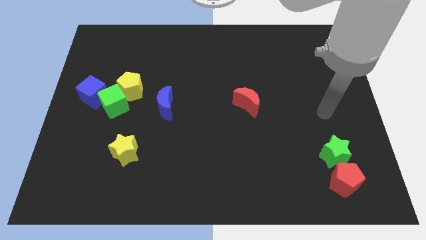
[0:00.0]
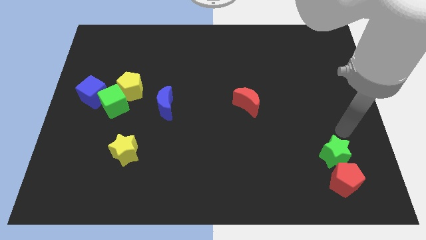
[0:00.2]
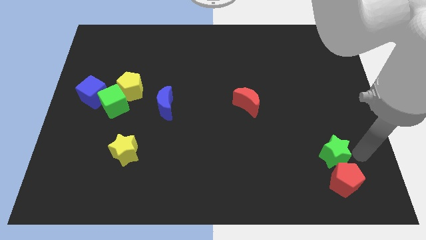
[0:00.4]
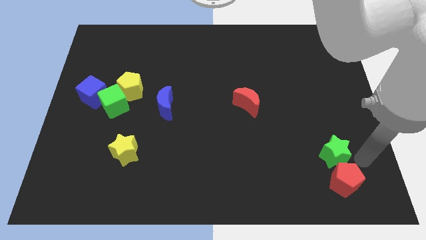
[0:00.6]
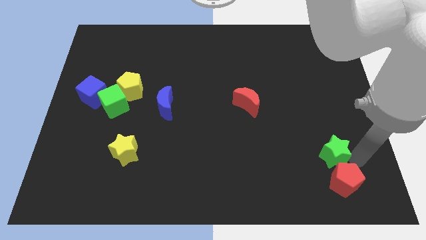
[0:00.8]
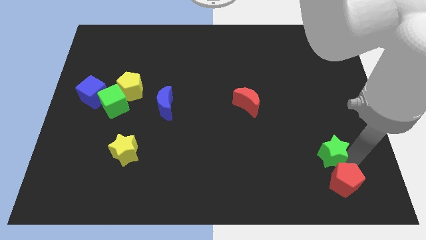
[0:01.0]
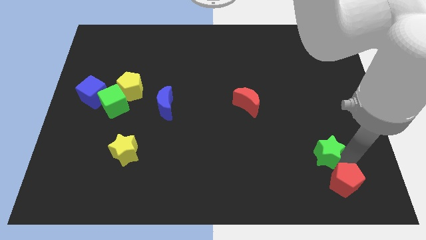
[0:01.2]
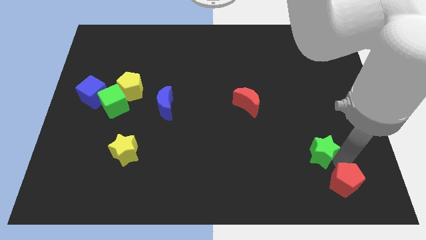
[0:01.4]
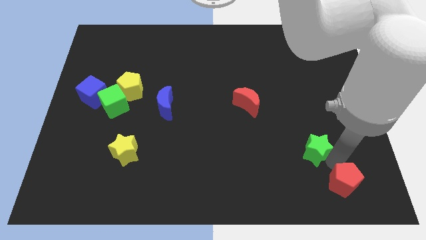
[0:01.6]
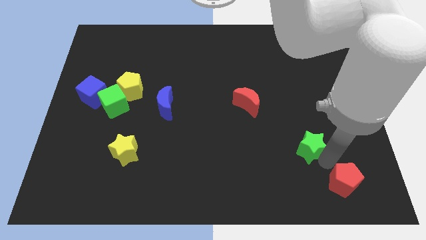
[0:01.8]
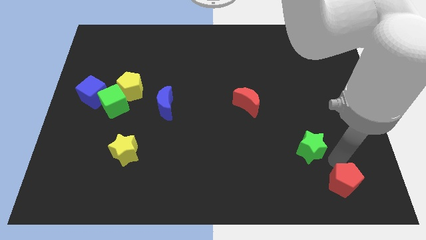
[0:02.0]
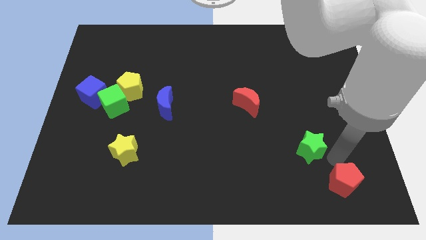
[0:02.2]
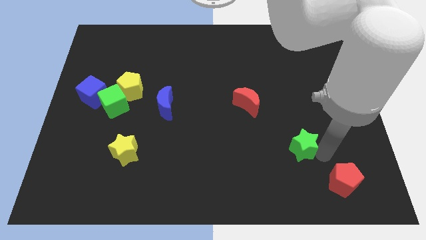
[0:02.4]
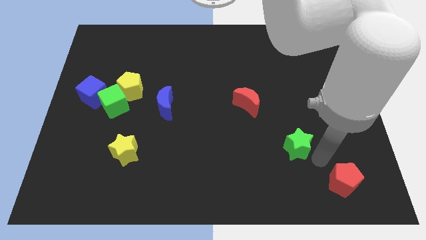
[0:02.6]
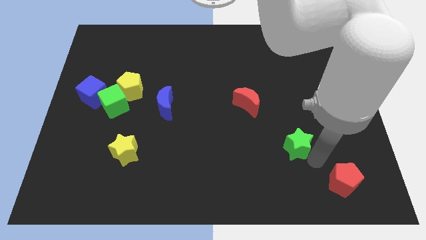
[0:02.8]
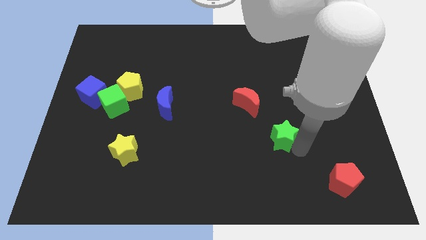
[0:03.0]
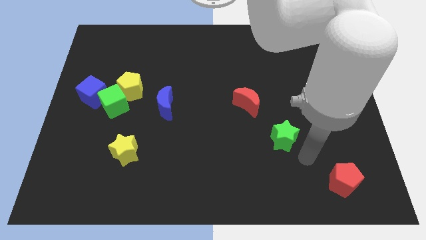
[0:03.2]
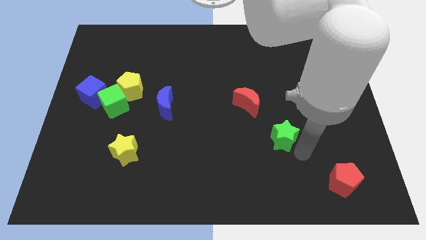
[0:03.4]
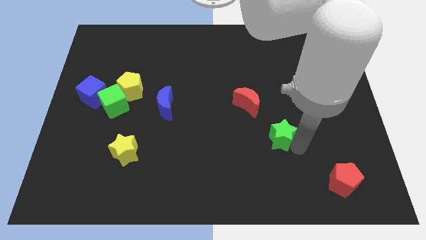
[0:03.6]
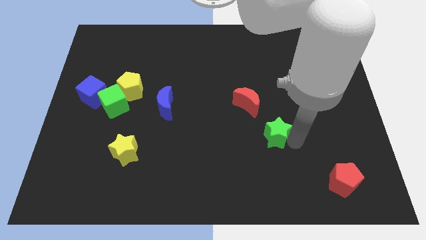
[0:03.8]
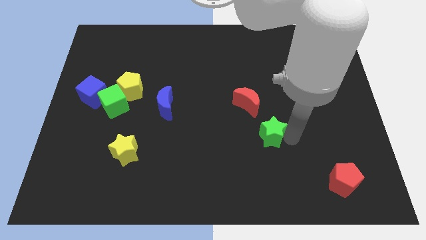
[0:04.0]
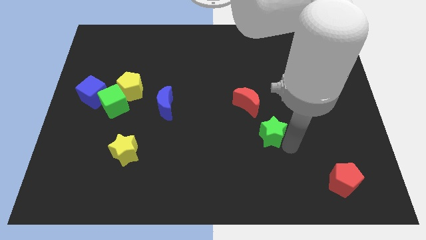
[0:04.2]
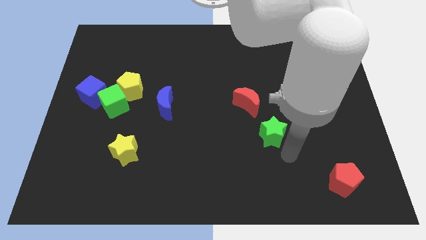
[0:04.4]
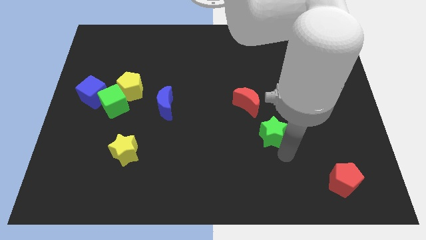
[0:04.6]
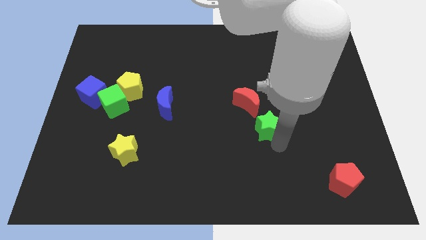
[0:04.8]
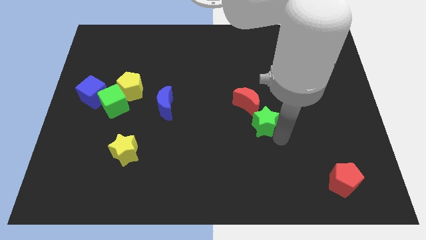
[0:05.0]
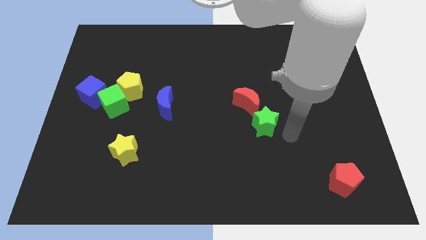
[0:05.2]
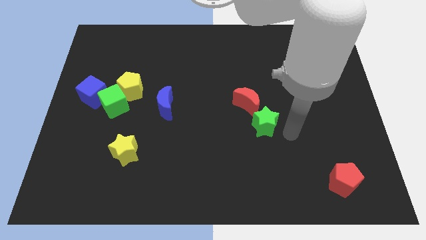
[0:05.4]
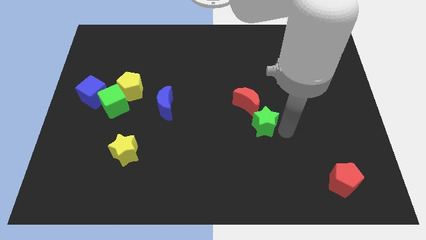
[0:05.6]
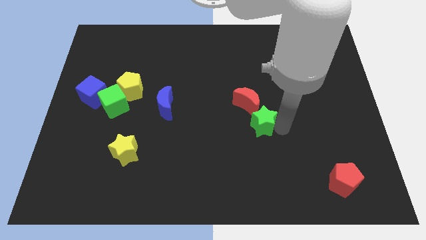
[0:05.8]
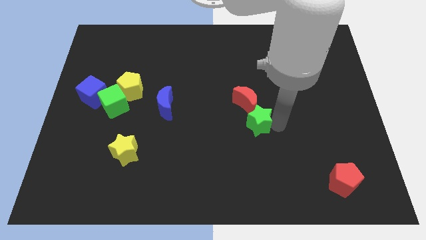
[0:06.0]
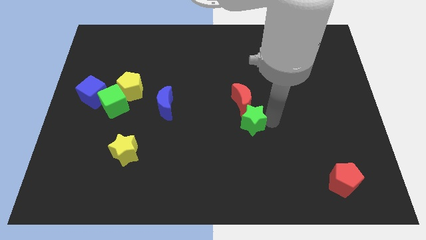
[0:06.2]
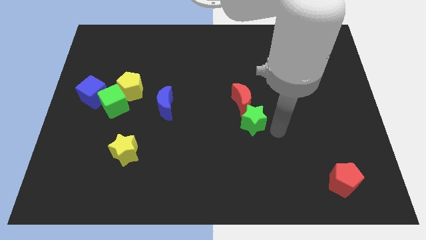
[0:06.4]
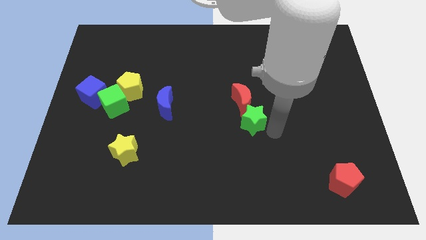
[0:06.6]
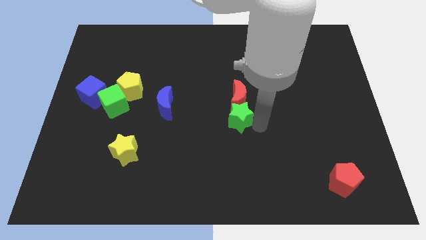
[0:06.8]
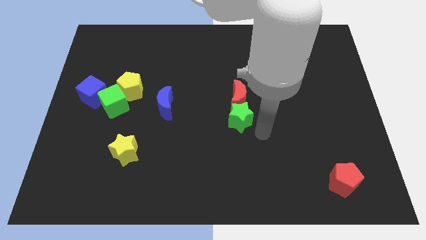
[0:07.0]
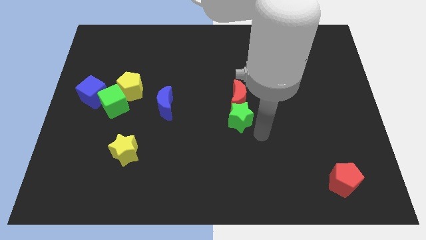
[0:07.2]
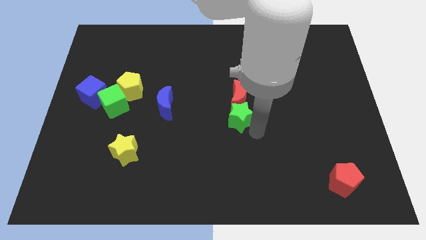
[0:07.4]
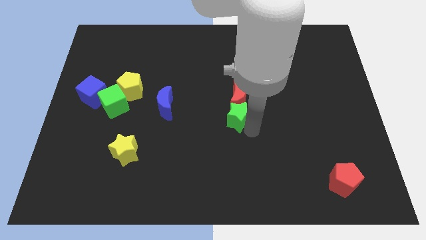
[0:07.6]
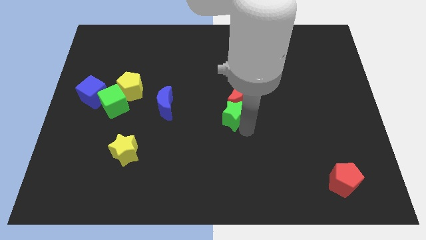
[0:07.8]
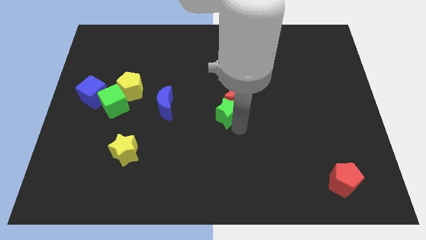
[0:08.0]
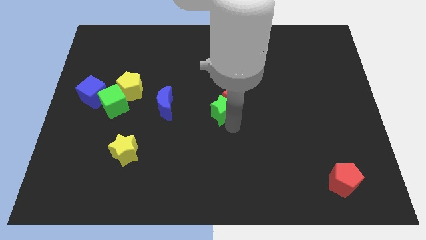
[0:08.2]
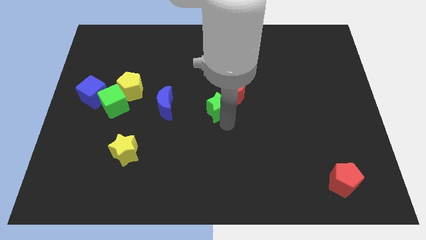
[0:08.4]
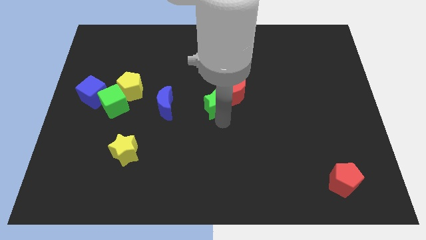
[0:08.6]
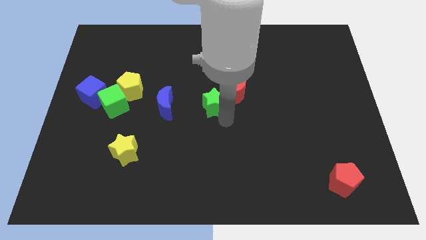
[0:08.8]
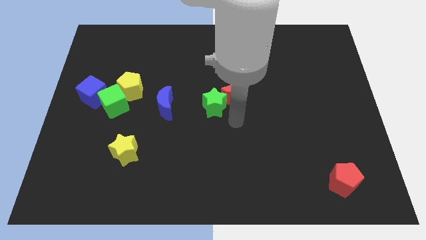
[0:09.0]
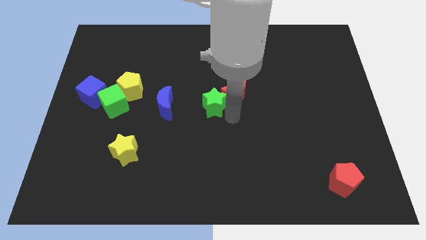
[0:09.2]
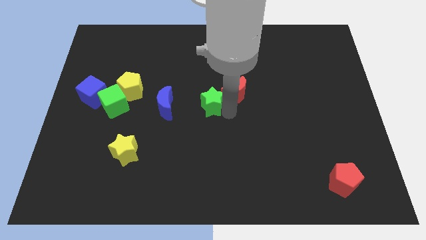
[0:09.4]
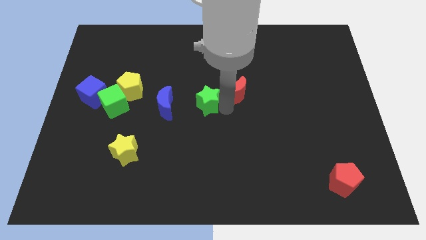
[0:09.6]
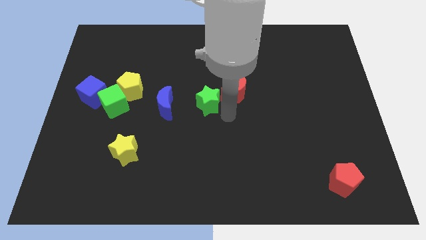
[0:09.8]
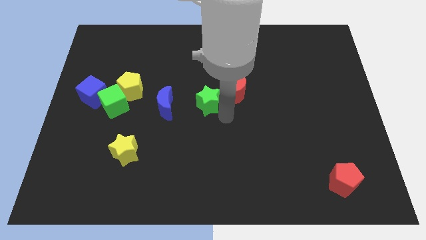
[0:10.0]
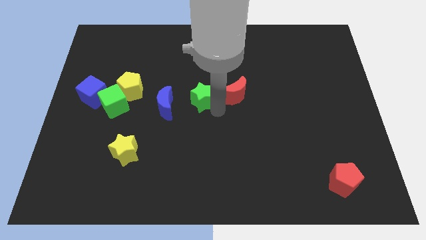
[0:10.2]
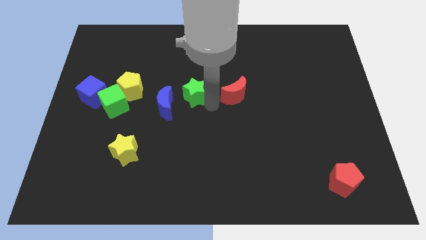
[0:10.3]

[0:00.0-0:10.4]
move the green star to the right of the yellow pentagon

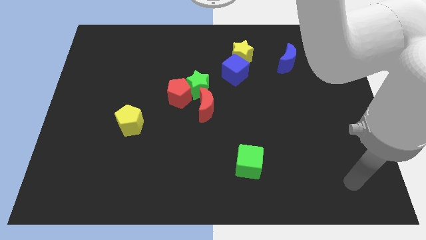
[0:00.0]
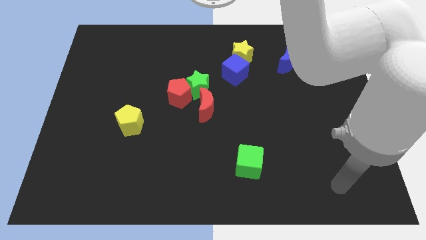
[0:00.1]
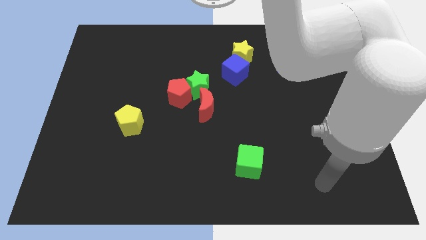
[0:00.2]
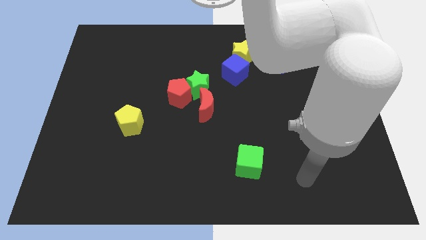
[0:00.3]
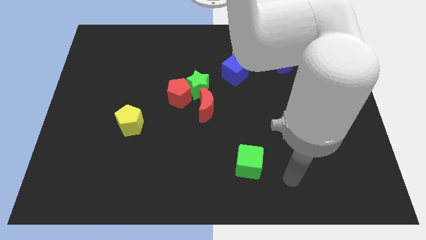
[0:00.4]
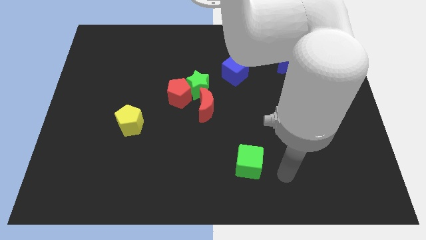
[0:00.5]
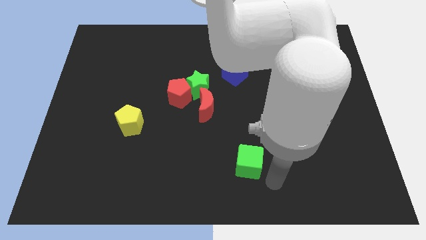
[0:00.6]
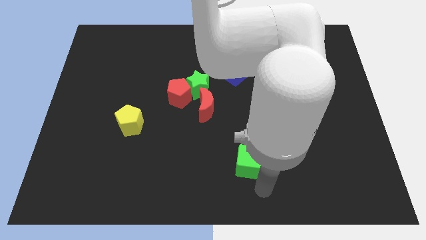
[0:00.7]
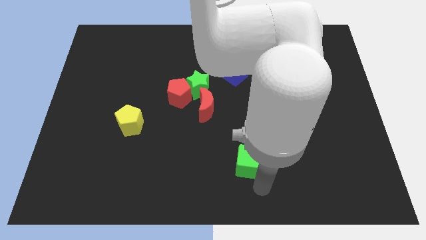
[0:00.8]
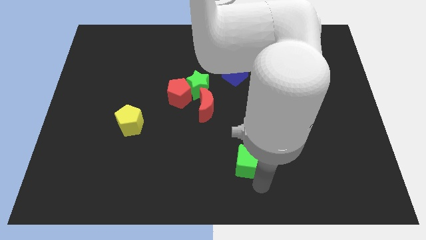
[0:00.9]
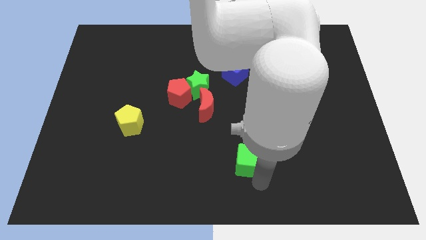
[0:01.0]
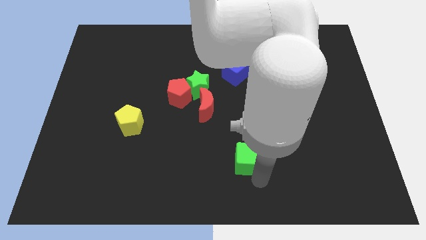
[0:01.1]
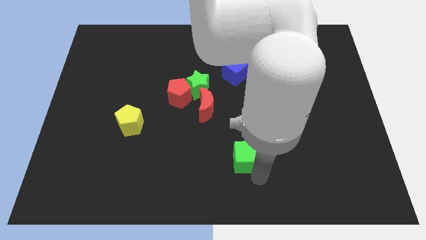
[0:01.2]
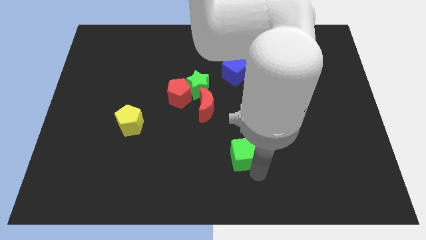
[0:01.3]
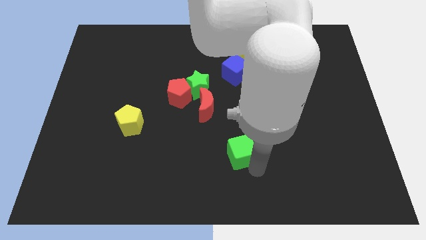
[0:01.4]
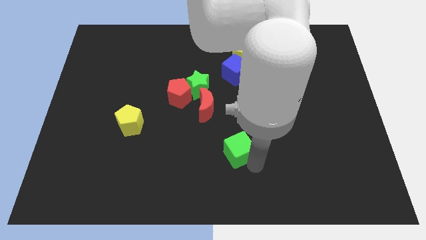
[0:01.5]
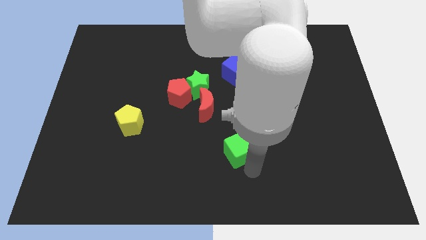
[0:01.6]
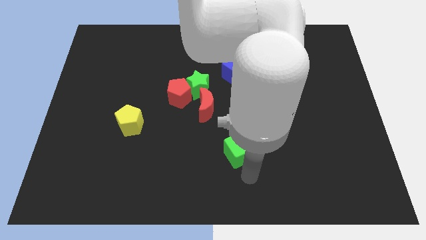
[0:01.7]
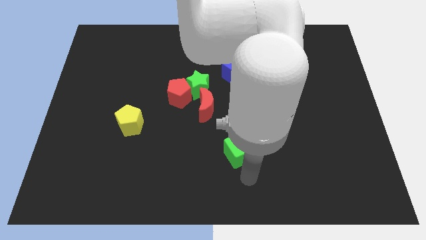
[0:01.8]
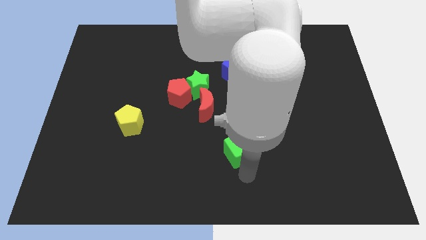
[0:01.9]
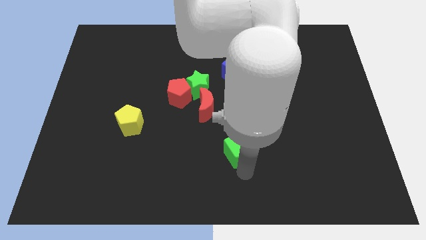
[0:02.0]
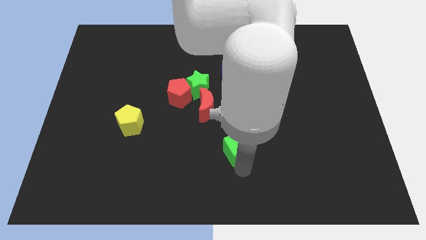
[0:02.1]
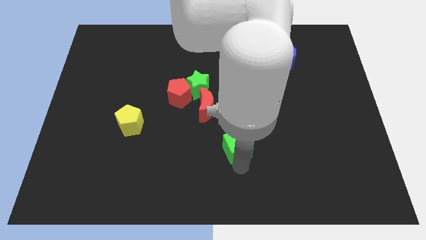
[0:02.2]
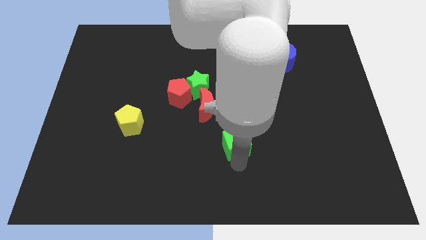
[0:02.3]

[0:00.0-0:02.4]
slide the green cube to the bottom right side of the red moon

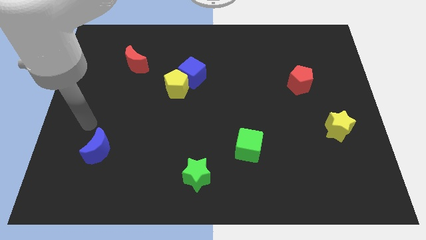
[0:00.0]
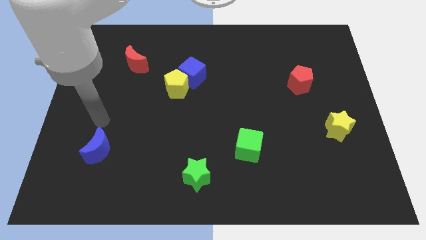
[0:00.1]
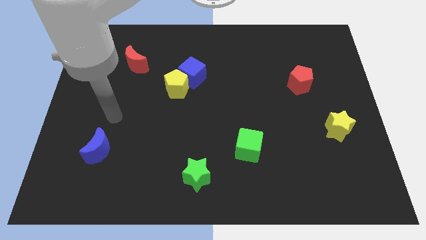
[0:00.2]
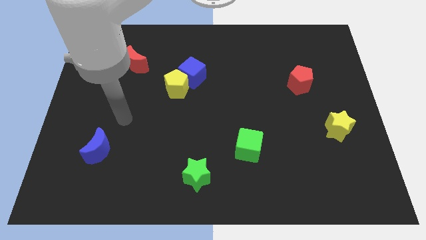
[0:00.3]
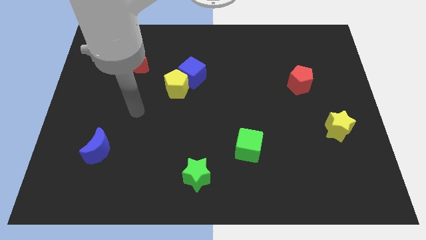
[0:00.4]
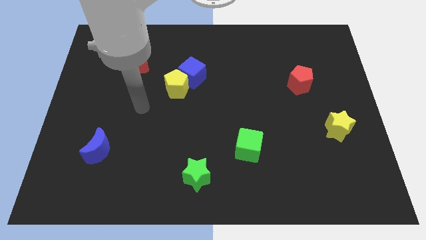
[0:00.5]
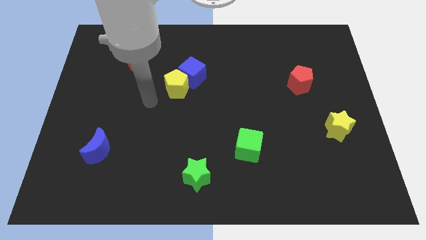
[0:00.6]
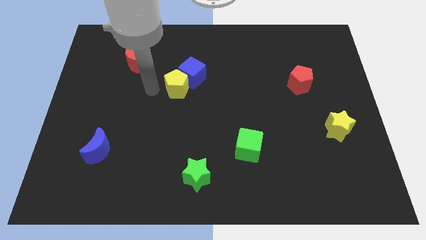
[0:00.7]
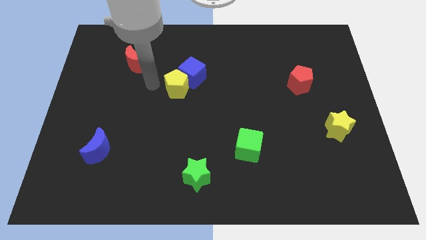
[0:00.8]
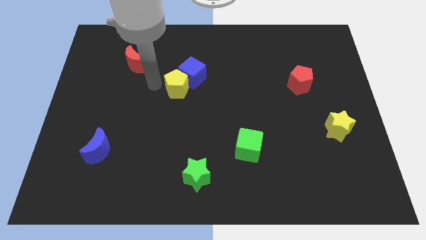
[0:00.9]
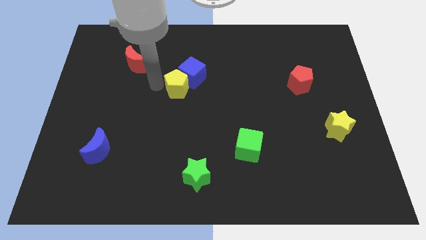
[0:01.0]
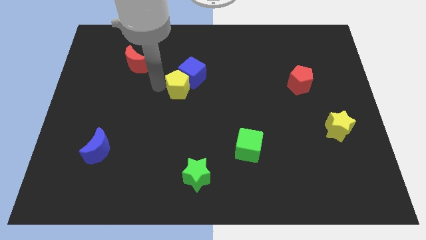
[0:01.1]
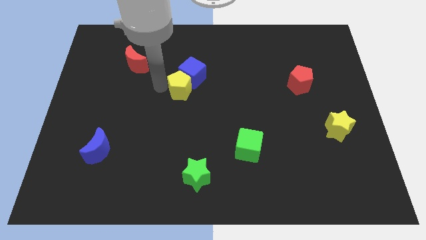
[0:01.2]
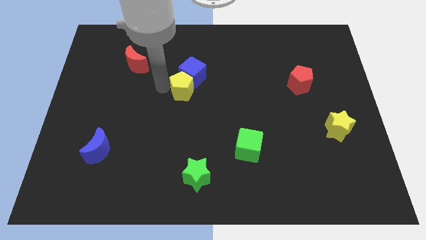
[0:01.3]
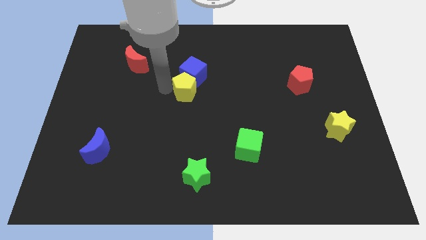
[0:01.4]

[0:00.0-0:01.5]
push the yellow pentagon diagonally down and to the right of the blue cube
